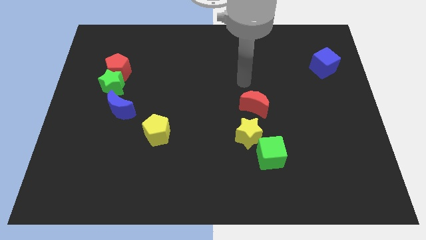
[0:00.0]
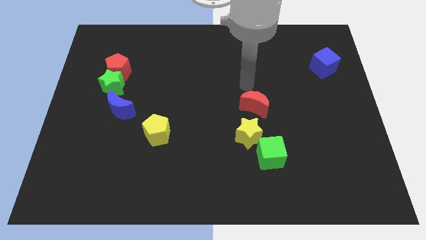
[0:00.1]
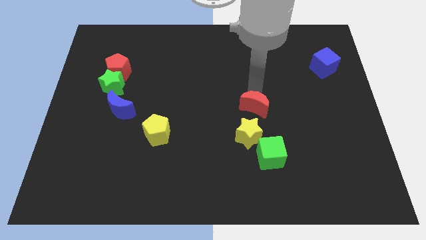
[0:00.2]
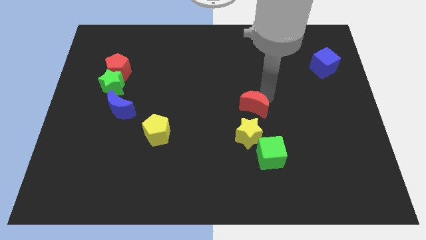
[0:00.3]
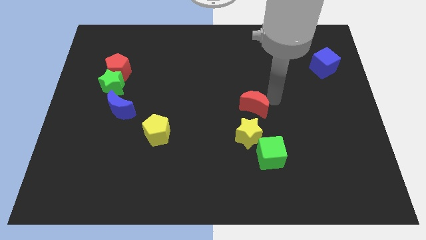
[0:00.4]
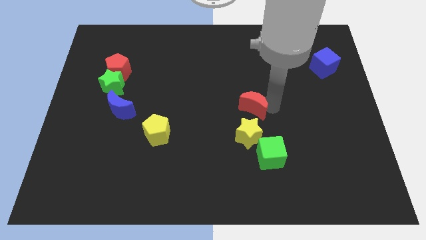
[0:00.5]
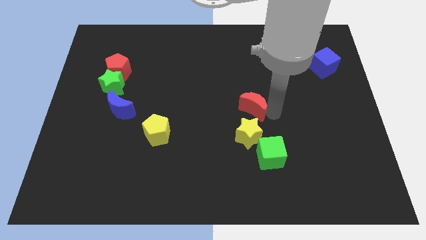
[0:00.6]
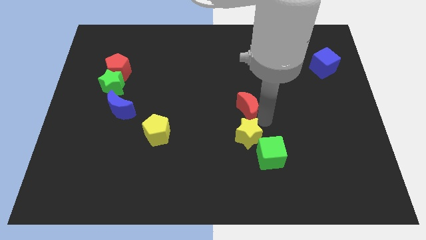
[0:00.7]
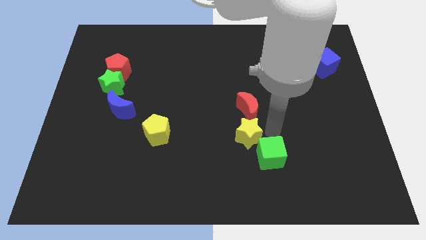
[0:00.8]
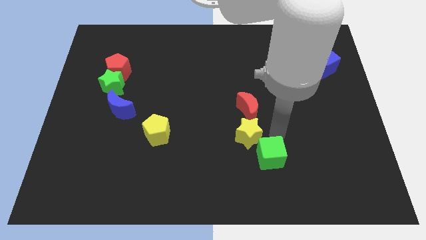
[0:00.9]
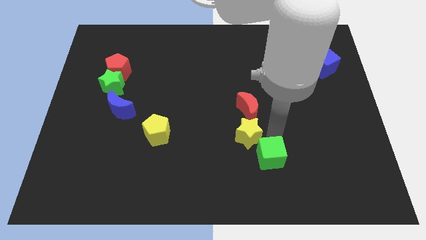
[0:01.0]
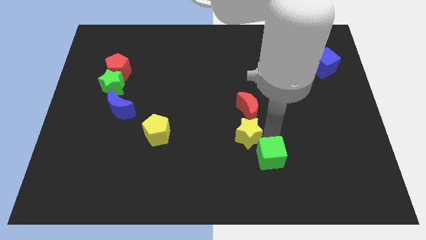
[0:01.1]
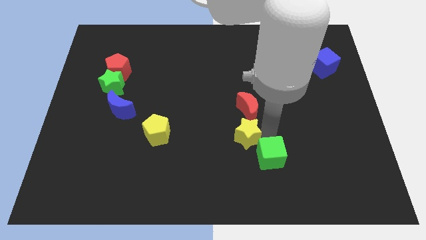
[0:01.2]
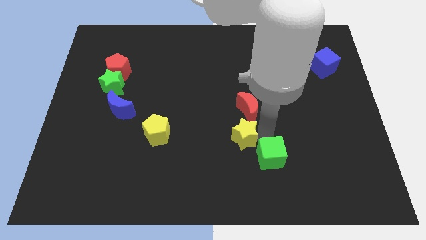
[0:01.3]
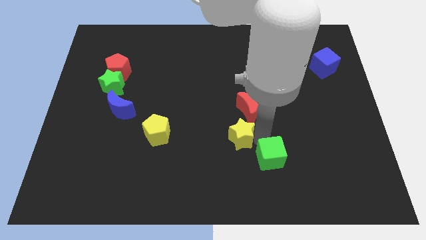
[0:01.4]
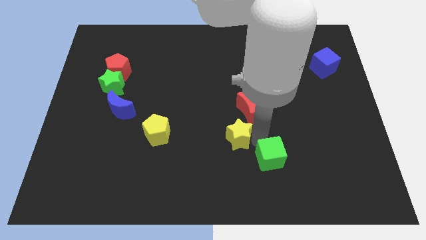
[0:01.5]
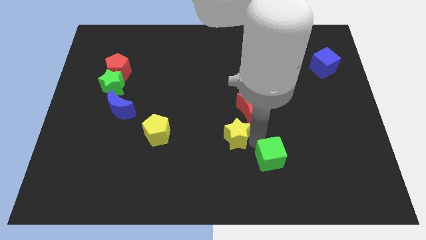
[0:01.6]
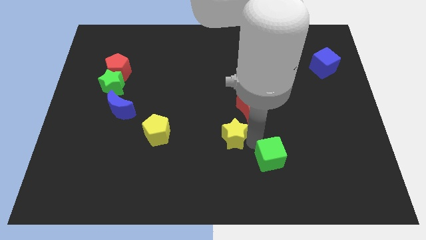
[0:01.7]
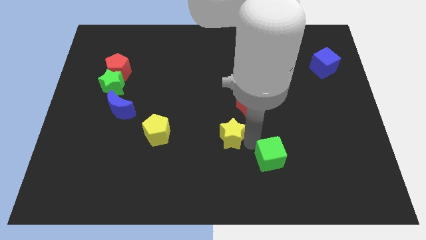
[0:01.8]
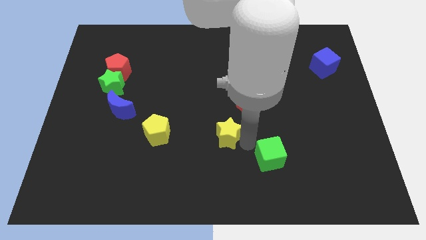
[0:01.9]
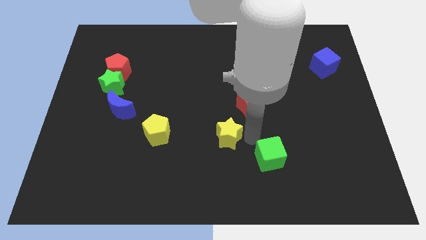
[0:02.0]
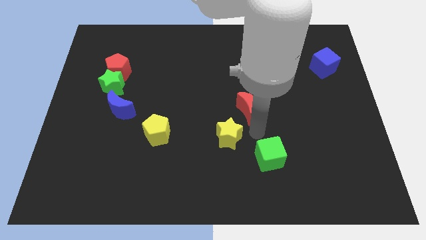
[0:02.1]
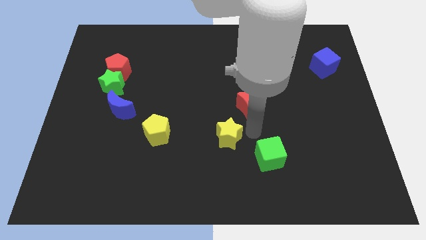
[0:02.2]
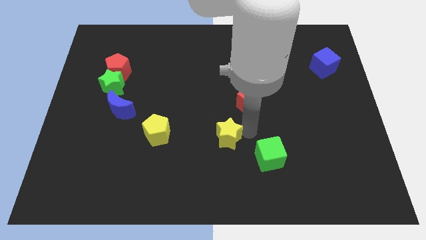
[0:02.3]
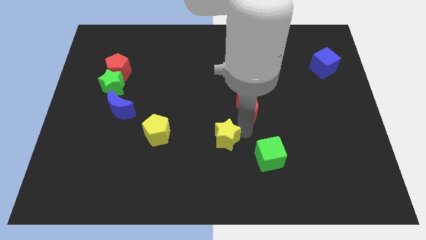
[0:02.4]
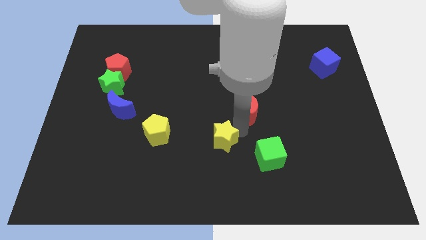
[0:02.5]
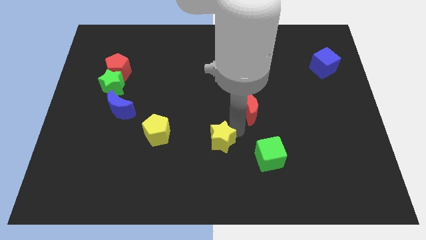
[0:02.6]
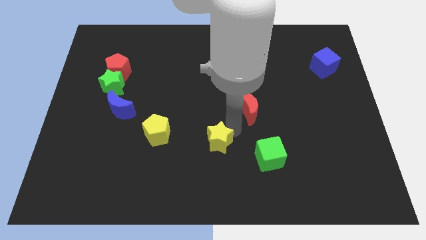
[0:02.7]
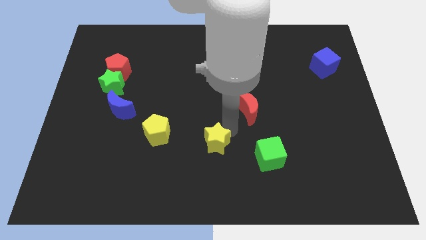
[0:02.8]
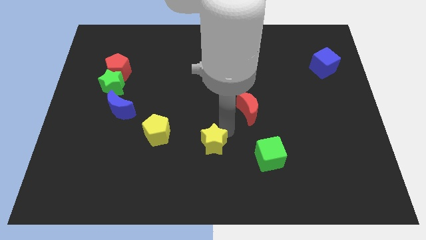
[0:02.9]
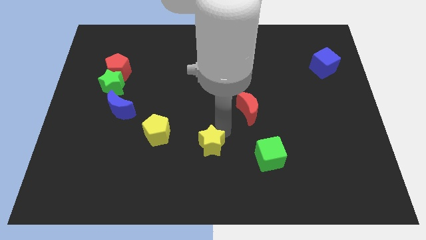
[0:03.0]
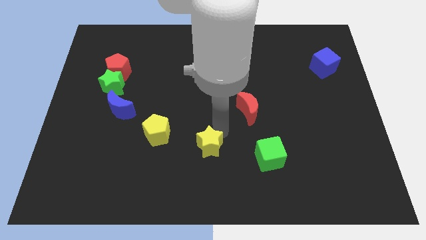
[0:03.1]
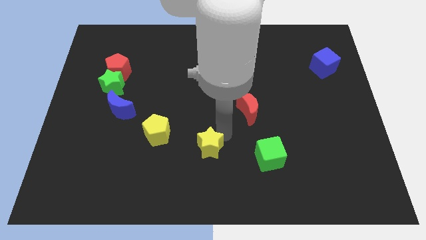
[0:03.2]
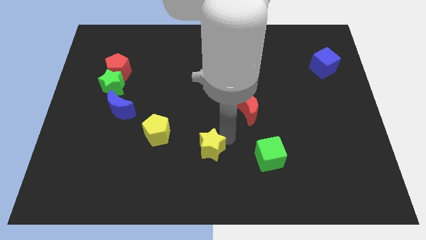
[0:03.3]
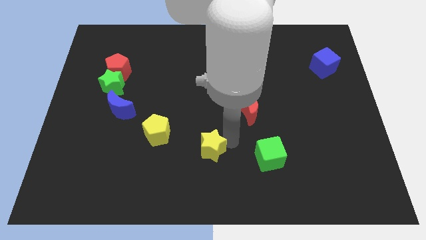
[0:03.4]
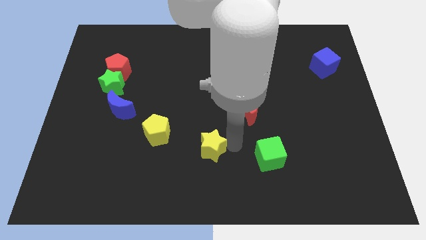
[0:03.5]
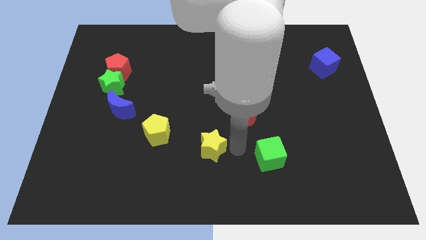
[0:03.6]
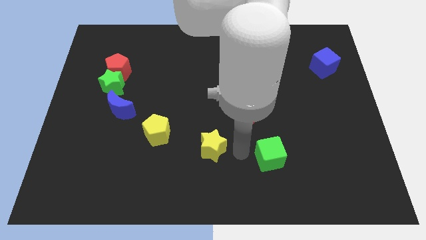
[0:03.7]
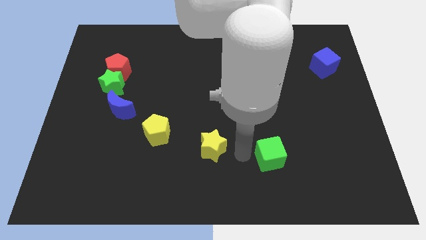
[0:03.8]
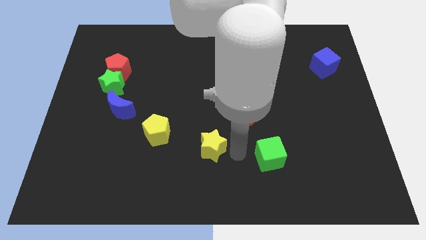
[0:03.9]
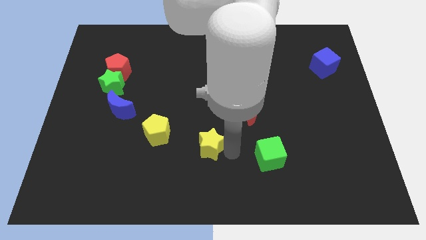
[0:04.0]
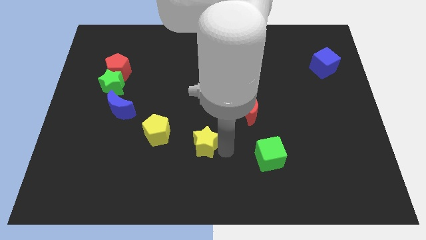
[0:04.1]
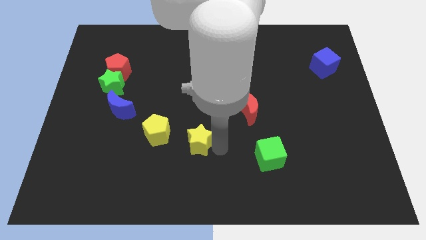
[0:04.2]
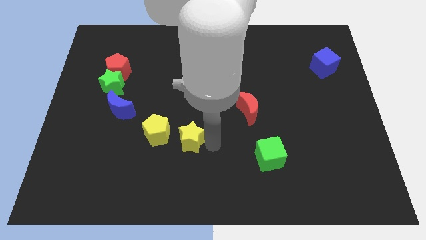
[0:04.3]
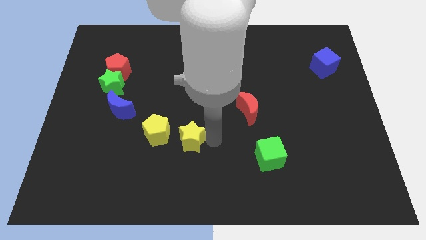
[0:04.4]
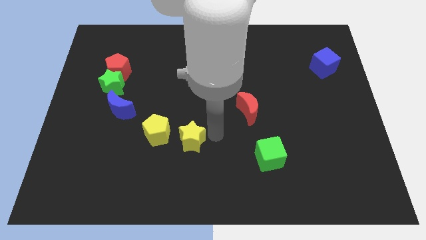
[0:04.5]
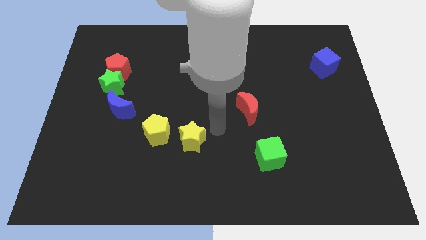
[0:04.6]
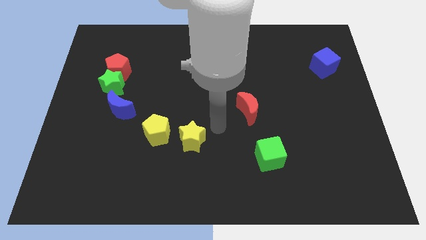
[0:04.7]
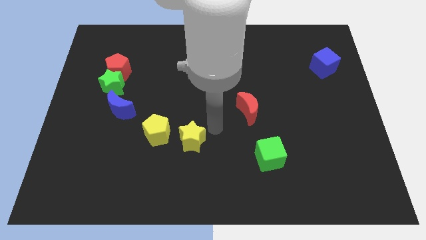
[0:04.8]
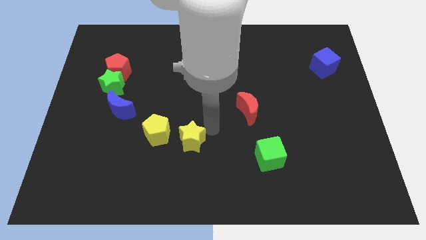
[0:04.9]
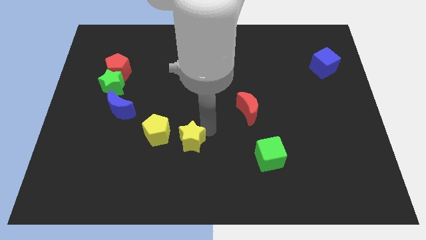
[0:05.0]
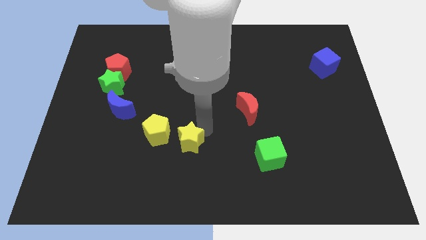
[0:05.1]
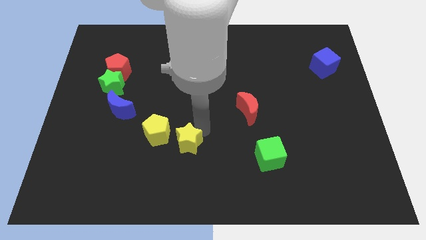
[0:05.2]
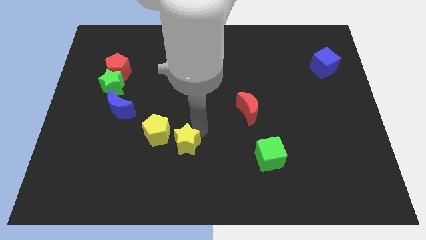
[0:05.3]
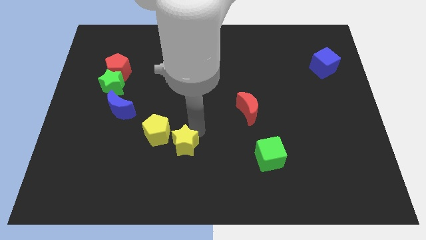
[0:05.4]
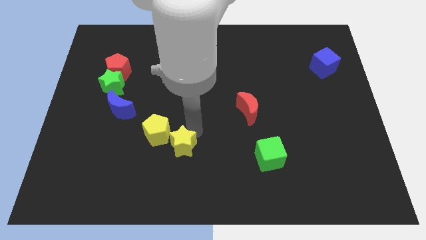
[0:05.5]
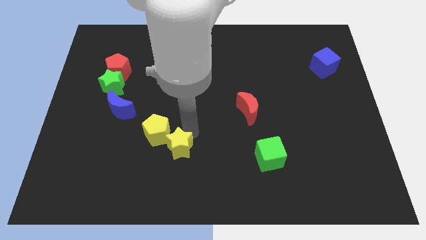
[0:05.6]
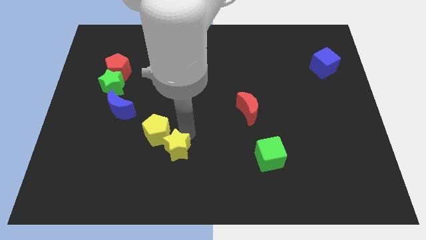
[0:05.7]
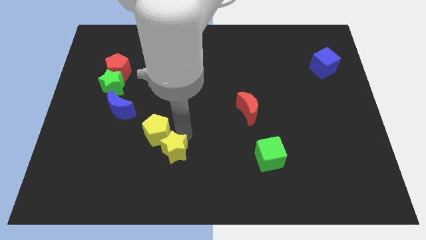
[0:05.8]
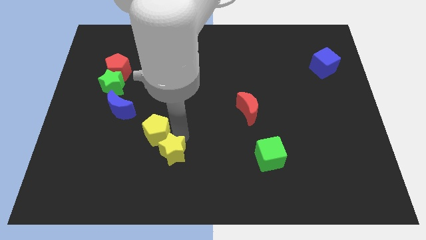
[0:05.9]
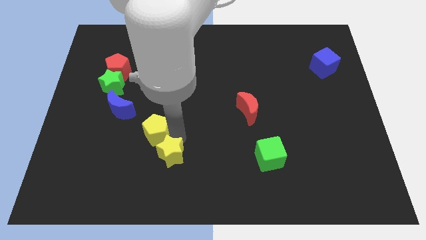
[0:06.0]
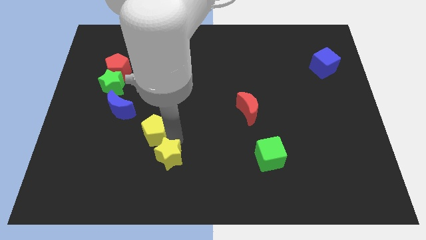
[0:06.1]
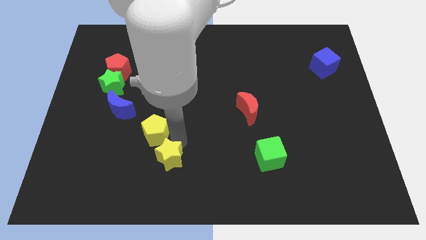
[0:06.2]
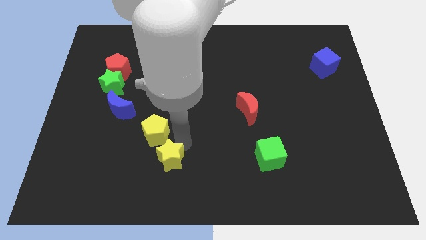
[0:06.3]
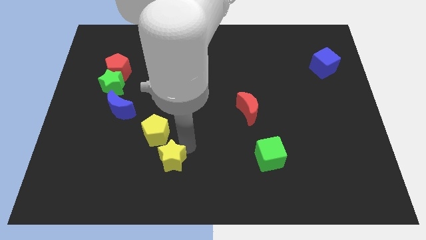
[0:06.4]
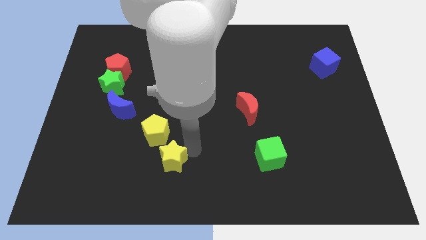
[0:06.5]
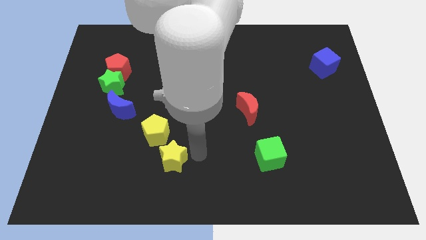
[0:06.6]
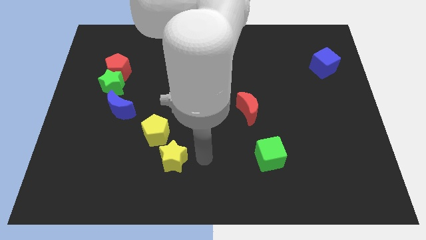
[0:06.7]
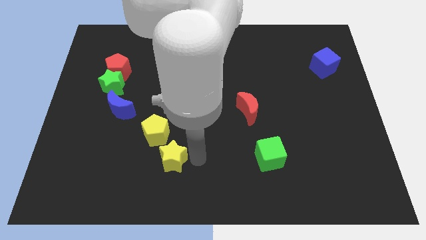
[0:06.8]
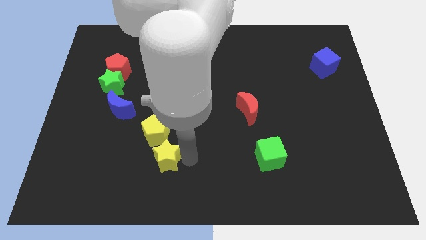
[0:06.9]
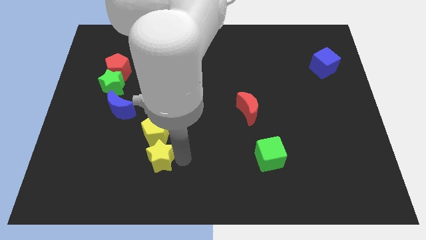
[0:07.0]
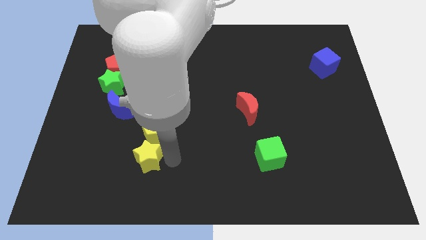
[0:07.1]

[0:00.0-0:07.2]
move the yellow star to the left

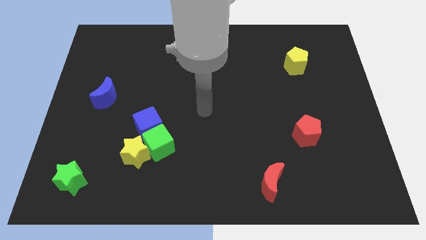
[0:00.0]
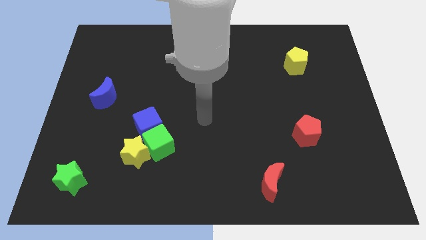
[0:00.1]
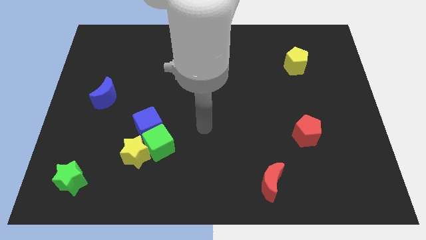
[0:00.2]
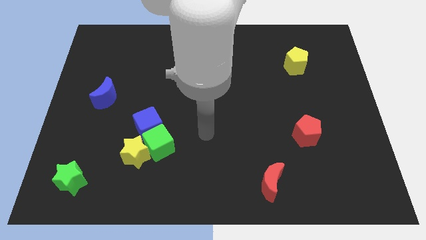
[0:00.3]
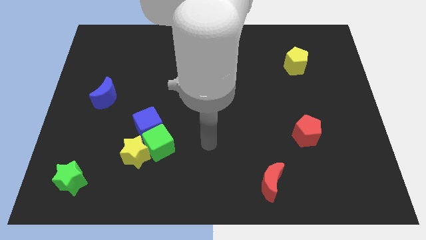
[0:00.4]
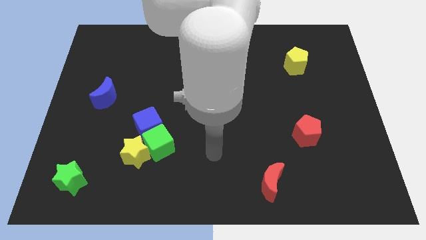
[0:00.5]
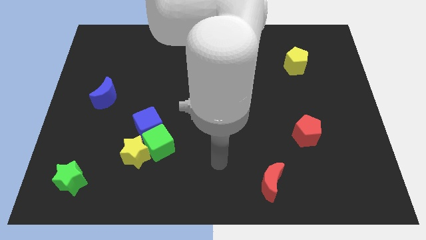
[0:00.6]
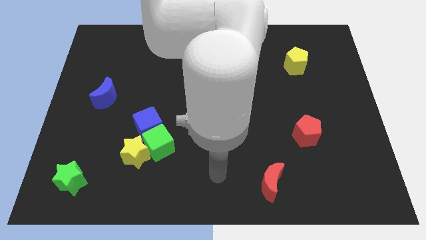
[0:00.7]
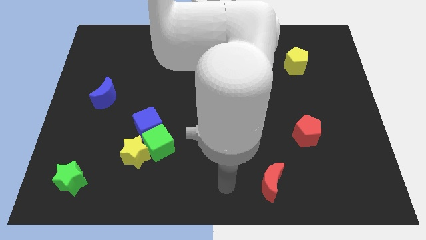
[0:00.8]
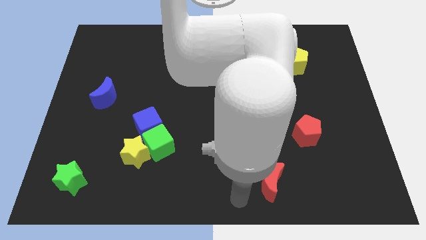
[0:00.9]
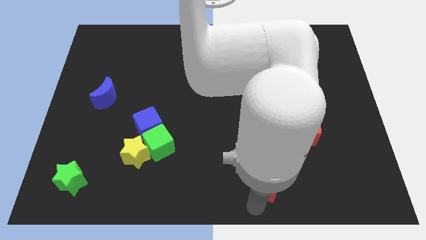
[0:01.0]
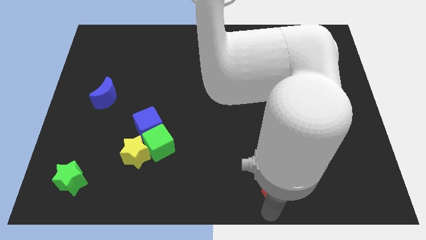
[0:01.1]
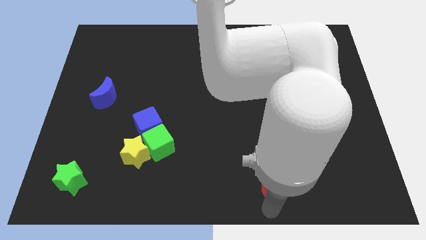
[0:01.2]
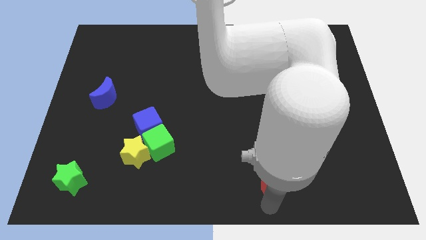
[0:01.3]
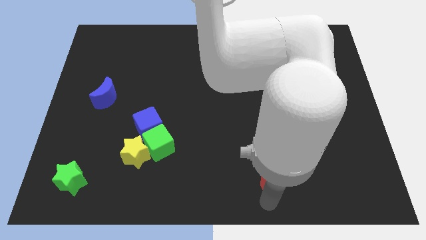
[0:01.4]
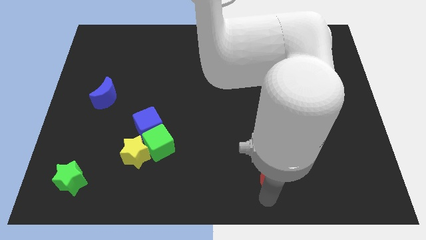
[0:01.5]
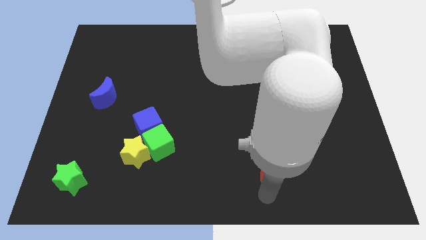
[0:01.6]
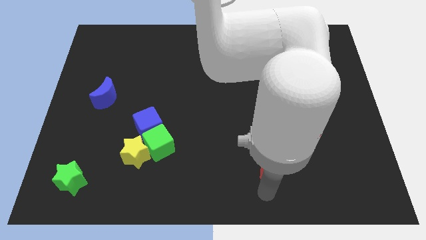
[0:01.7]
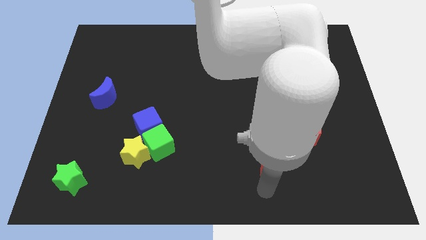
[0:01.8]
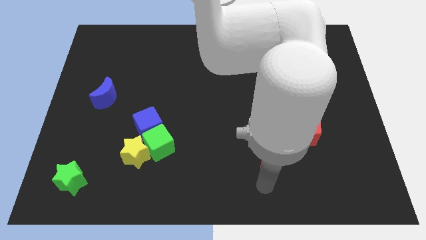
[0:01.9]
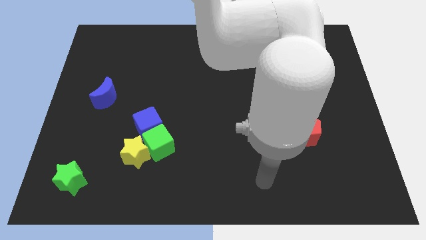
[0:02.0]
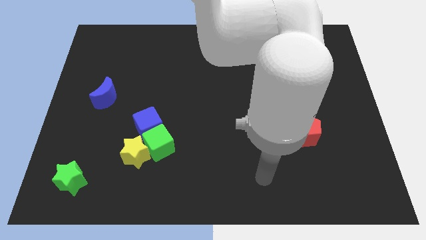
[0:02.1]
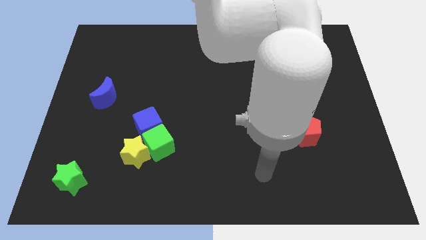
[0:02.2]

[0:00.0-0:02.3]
move the red moon up a little bit
